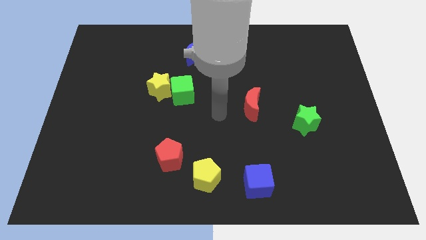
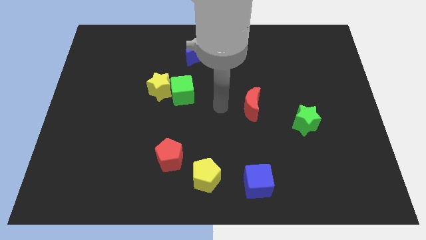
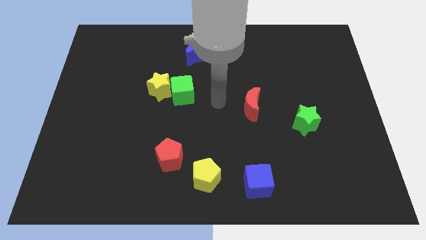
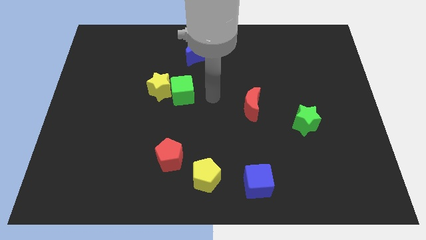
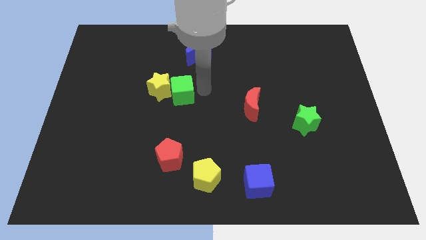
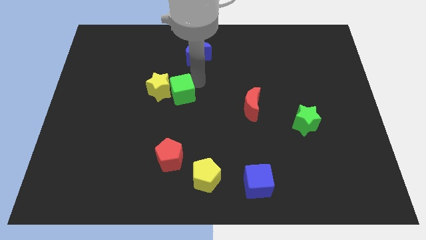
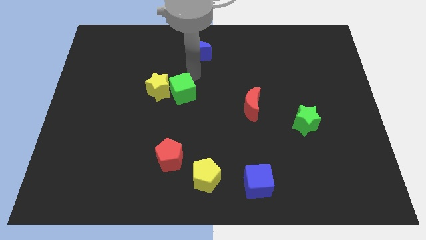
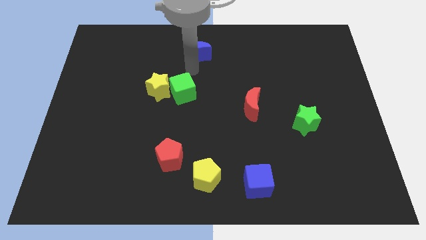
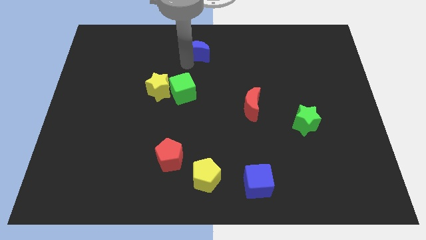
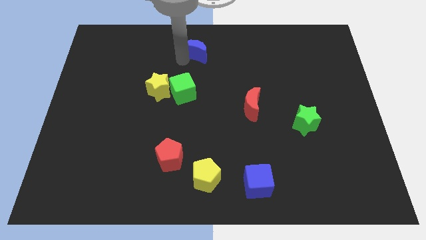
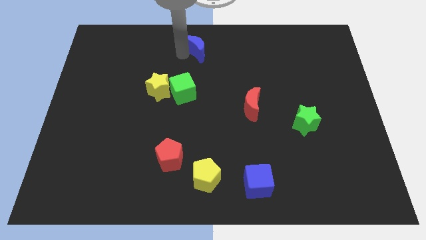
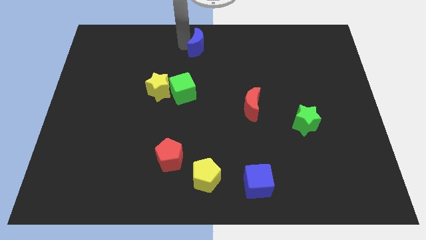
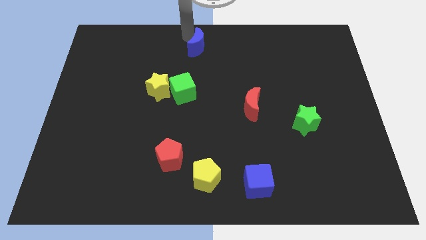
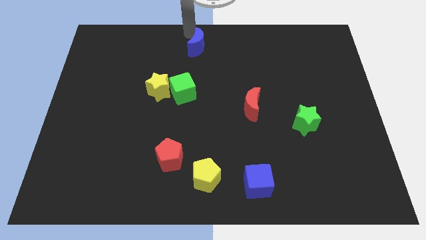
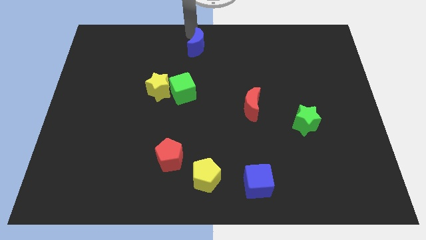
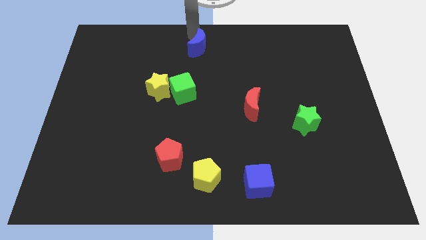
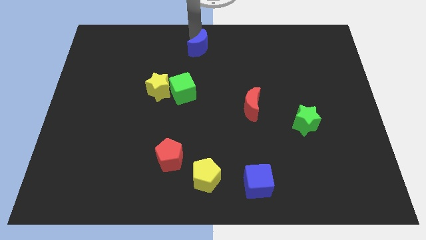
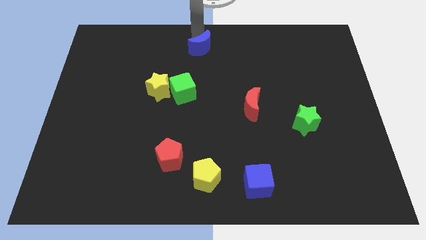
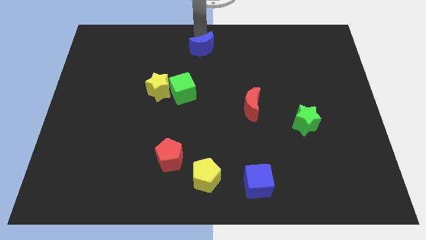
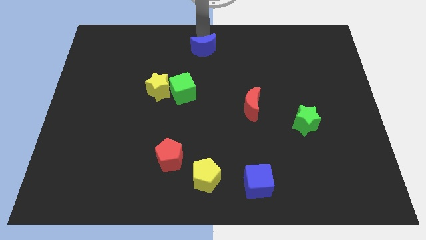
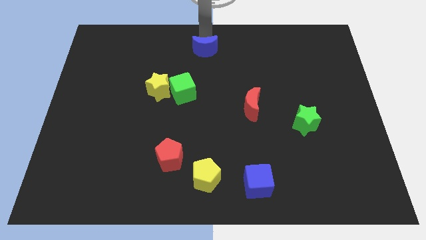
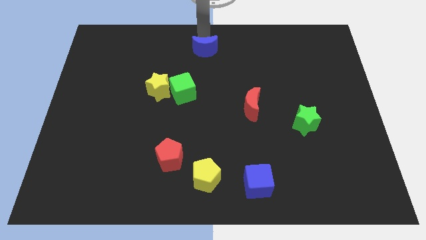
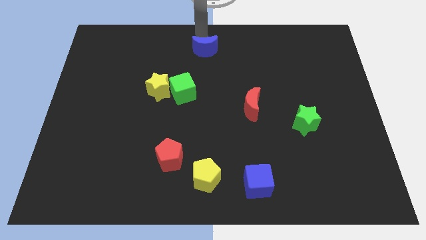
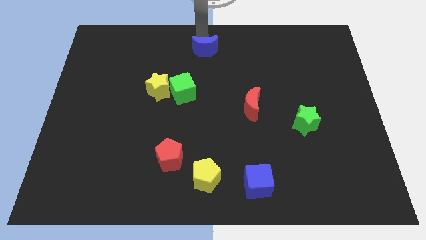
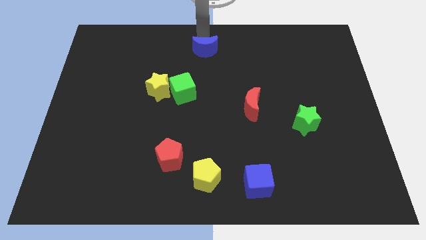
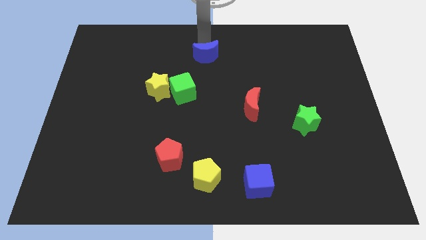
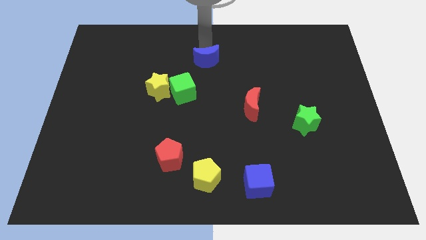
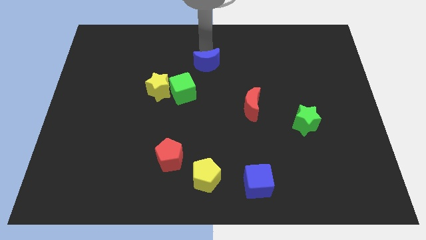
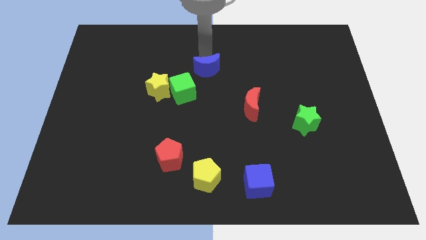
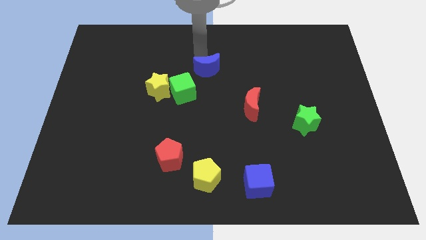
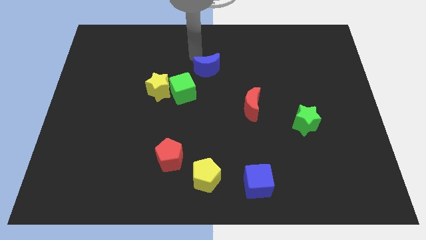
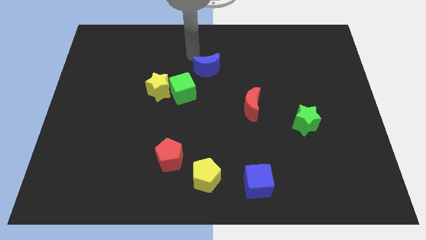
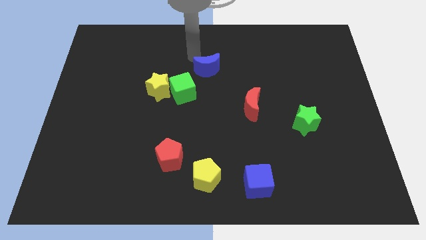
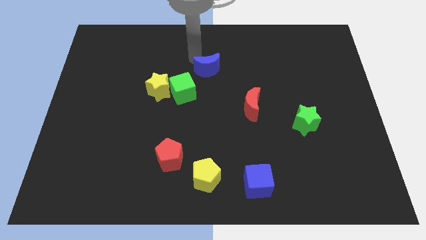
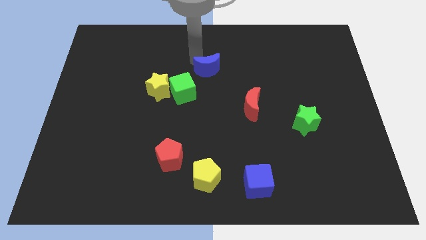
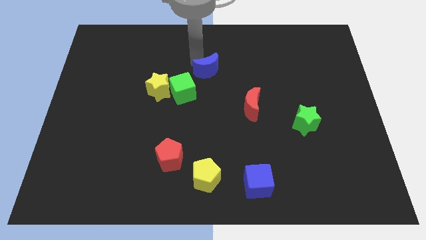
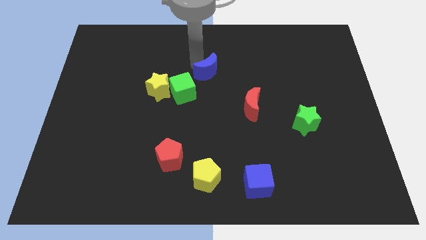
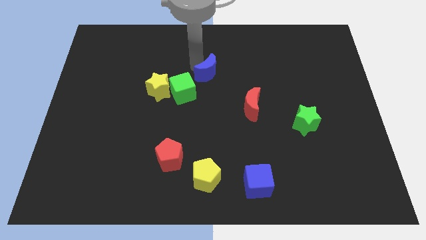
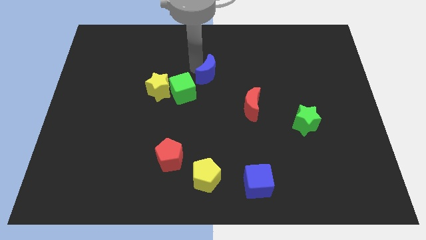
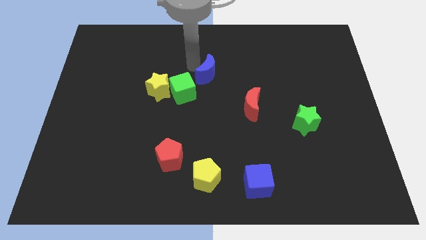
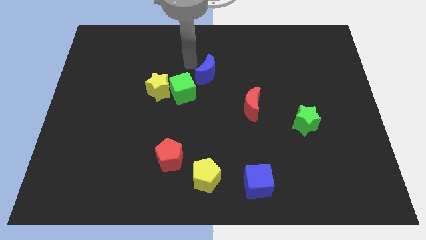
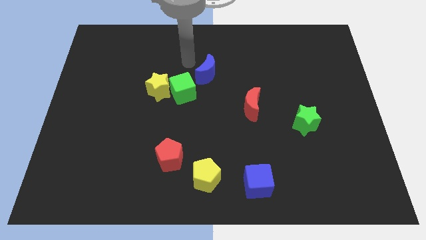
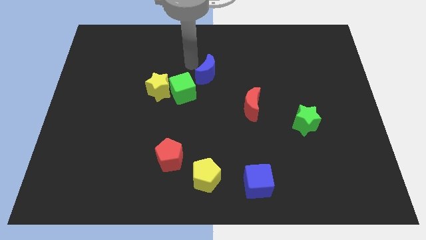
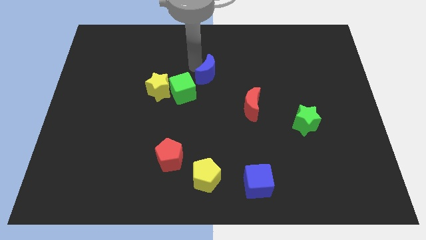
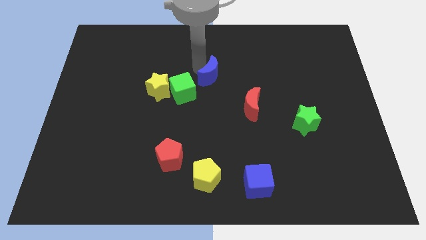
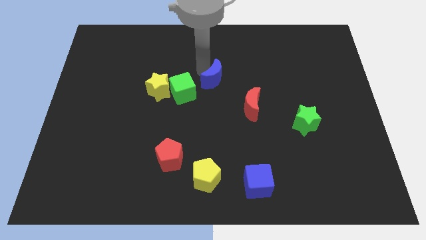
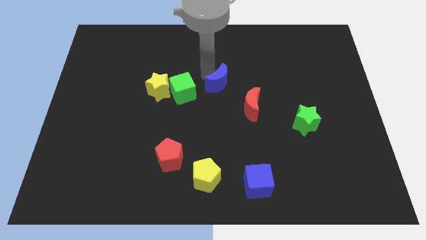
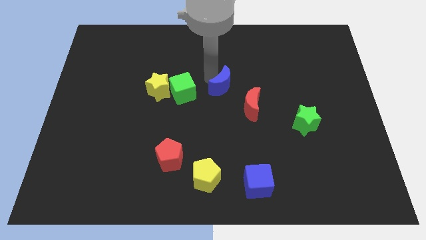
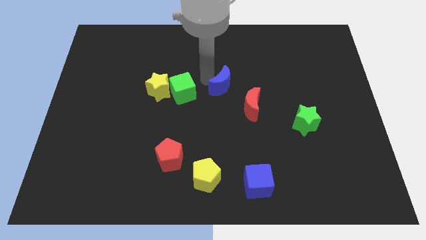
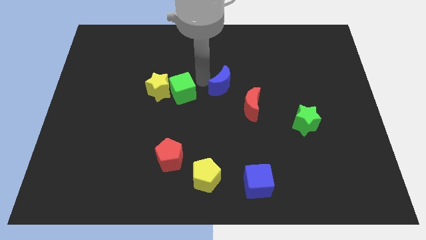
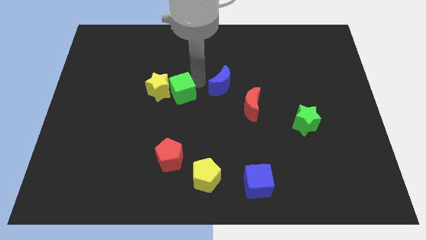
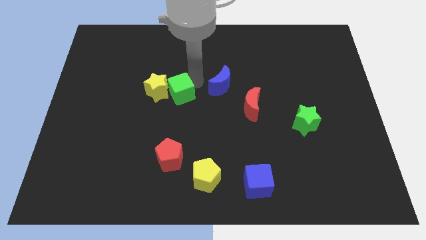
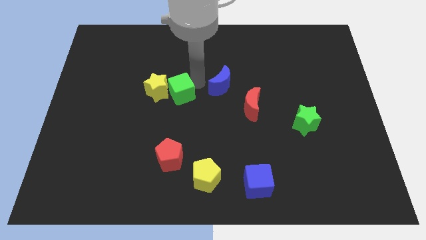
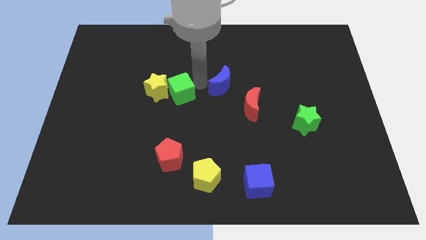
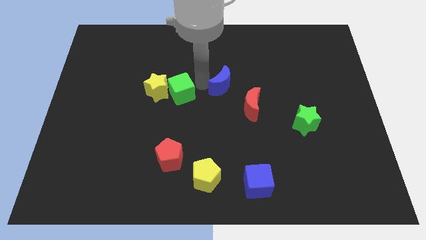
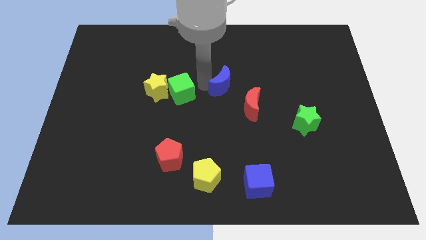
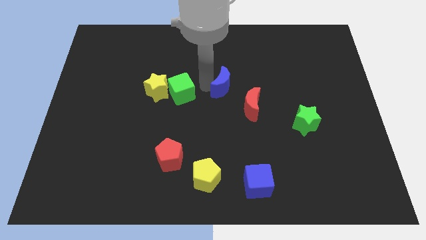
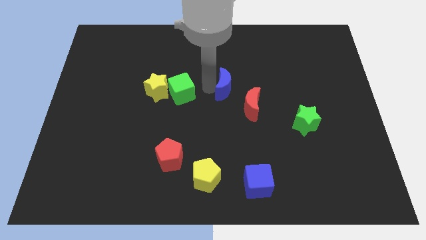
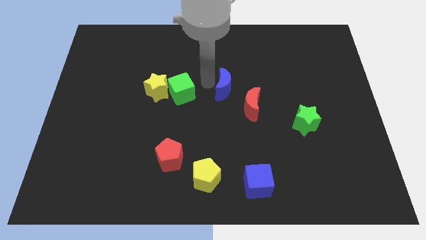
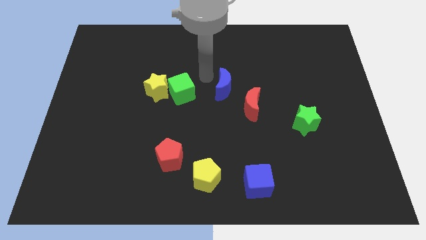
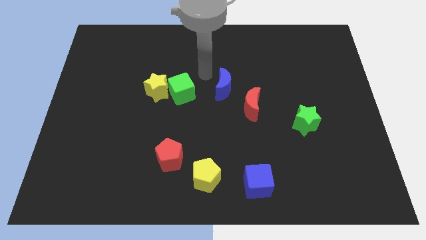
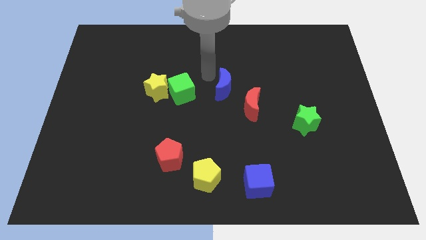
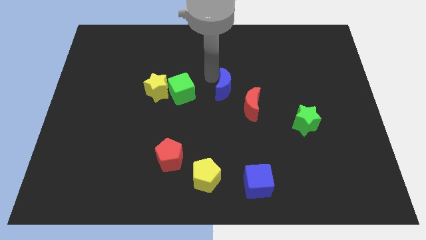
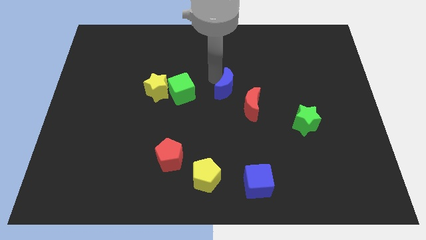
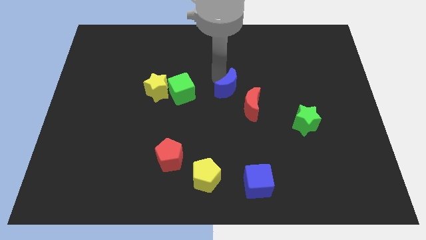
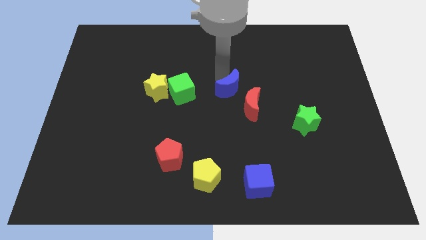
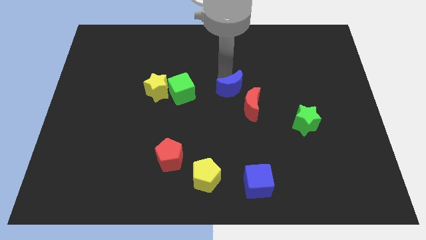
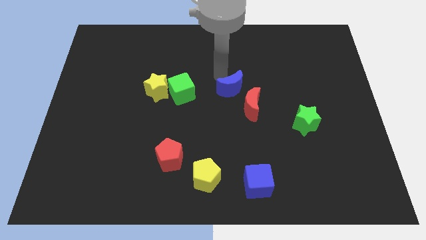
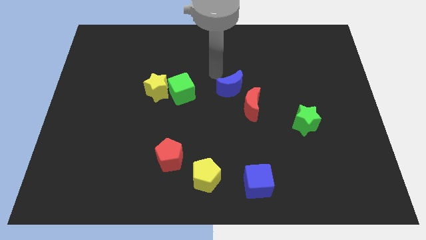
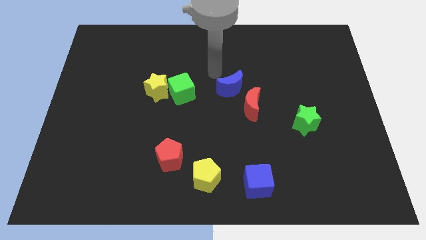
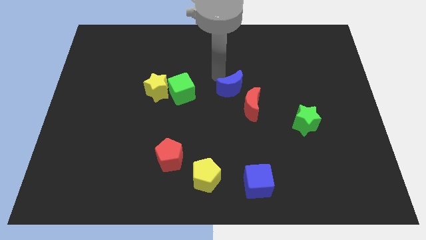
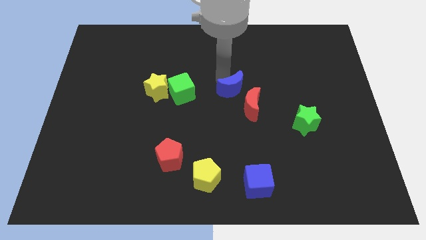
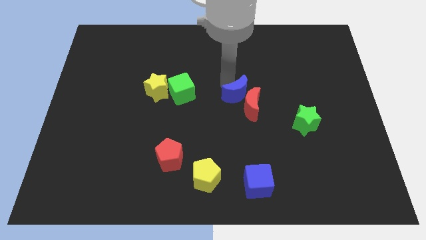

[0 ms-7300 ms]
put the blue moon towards the red moon
